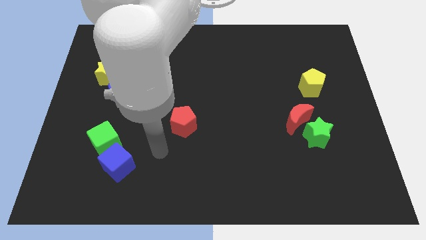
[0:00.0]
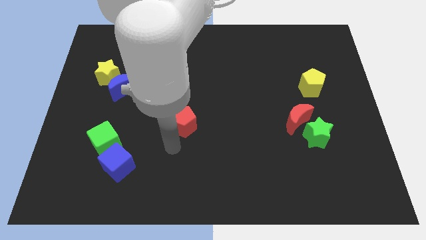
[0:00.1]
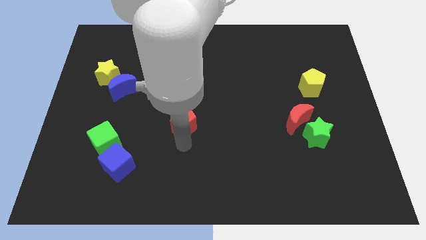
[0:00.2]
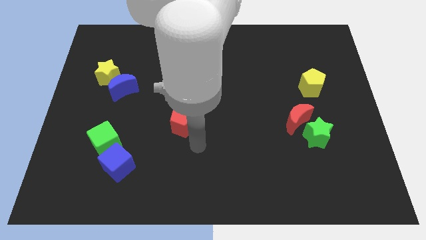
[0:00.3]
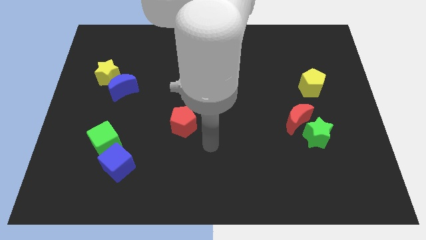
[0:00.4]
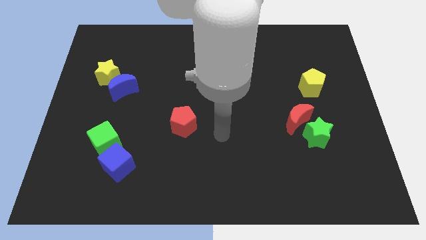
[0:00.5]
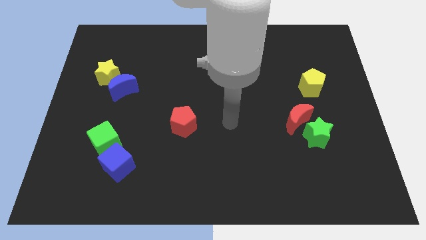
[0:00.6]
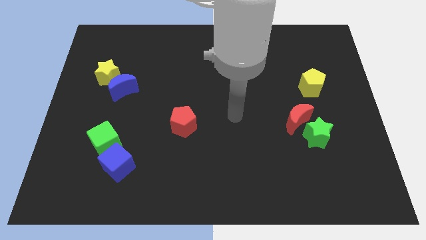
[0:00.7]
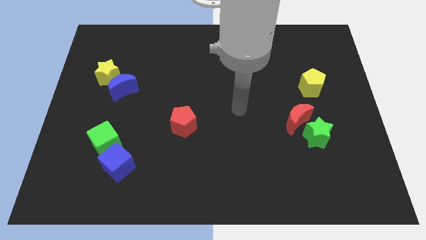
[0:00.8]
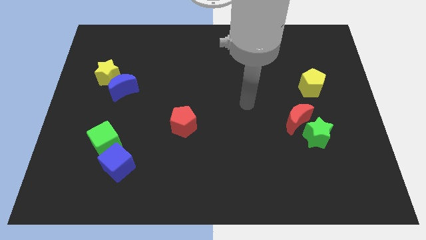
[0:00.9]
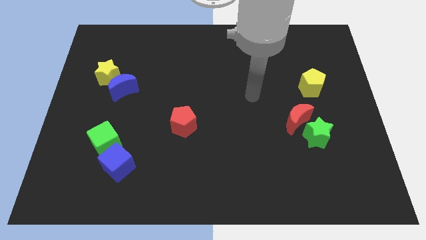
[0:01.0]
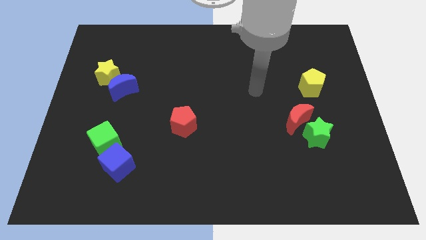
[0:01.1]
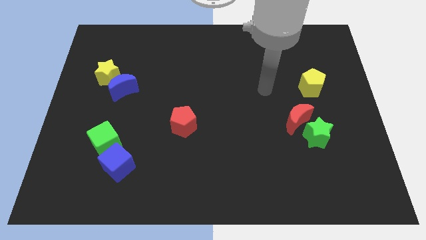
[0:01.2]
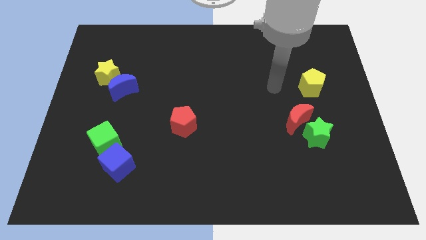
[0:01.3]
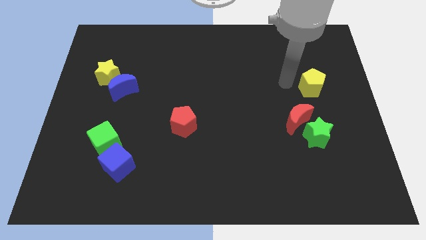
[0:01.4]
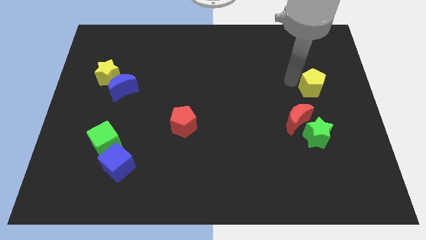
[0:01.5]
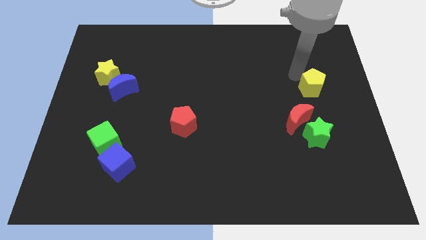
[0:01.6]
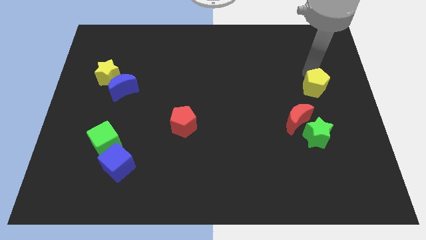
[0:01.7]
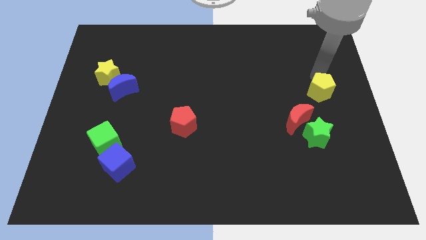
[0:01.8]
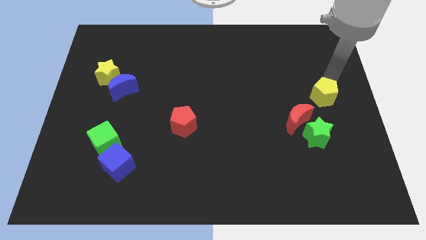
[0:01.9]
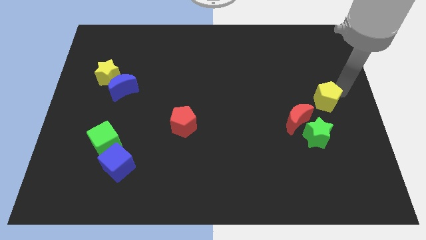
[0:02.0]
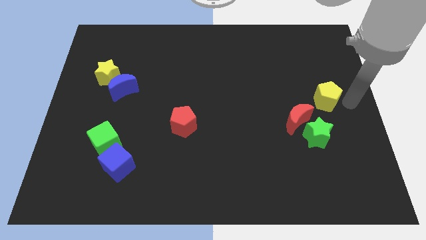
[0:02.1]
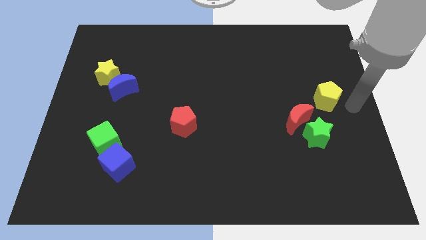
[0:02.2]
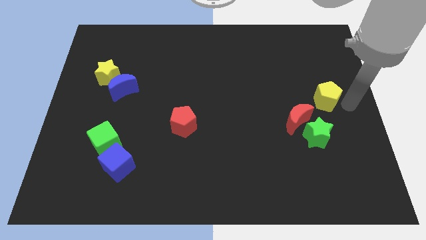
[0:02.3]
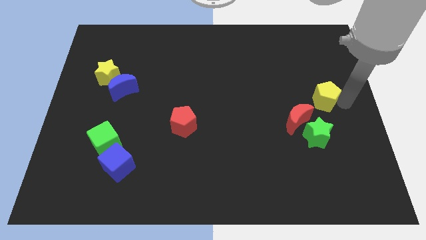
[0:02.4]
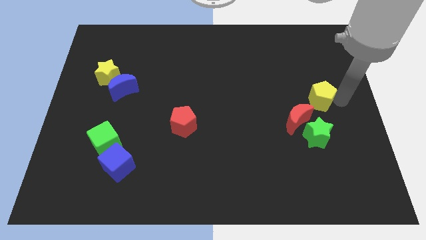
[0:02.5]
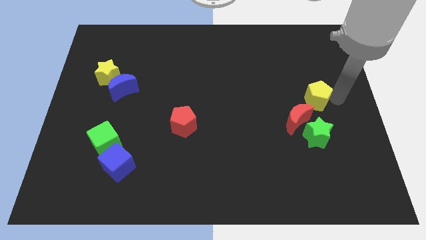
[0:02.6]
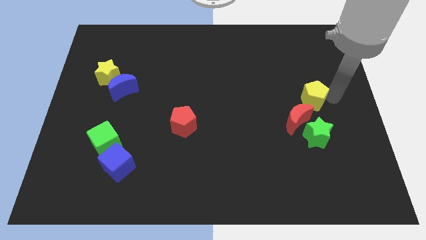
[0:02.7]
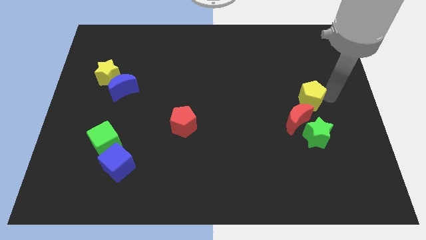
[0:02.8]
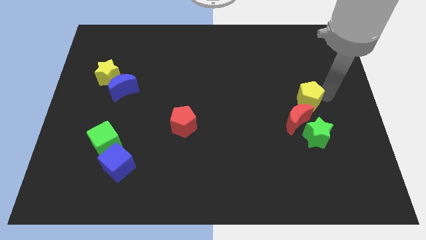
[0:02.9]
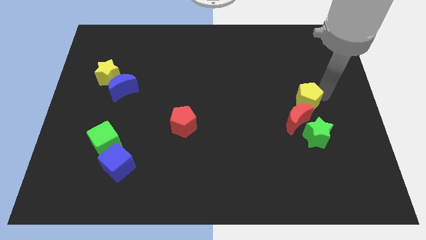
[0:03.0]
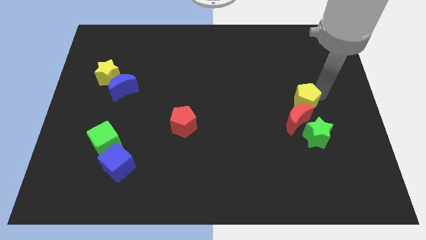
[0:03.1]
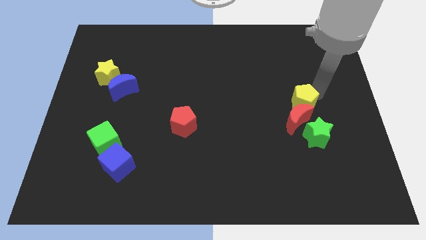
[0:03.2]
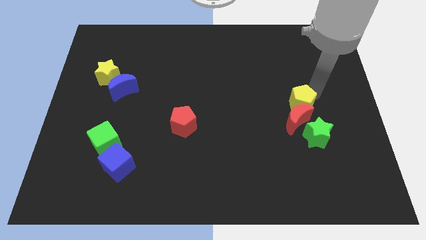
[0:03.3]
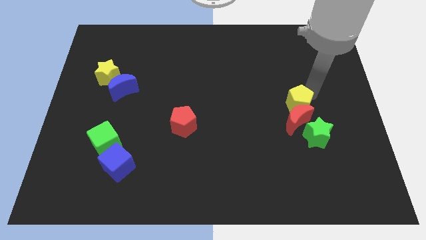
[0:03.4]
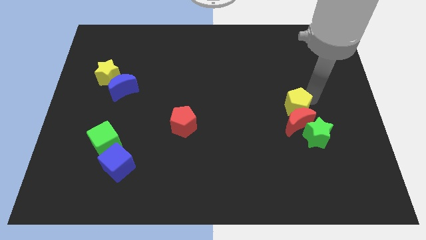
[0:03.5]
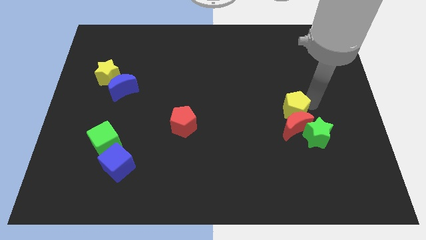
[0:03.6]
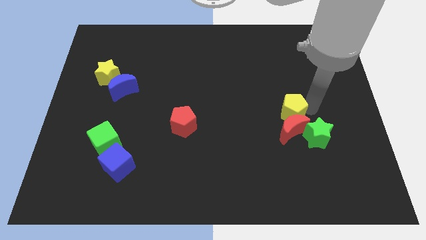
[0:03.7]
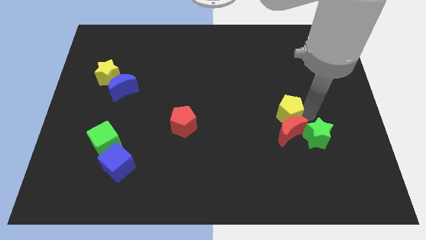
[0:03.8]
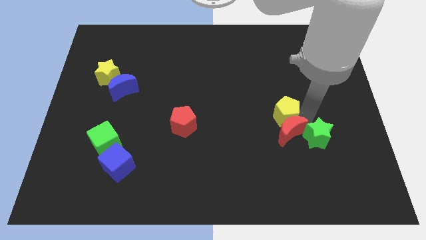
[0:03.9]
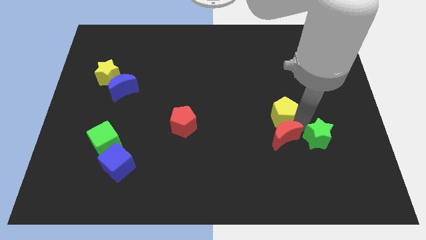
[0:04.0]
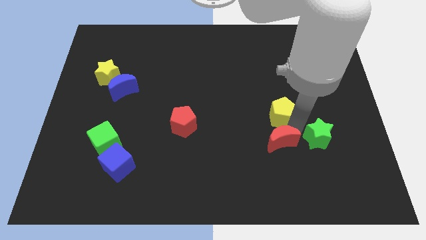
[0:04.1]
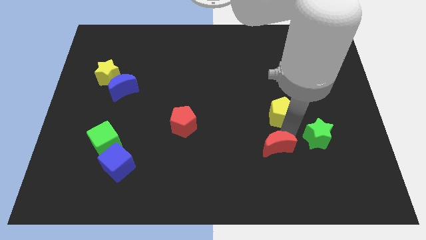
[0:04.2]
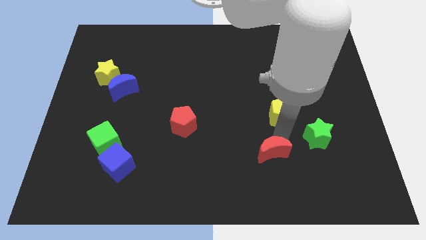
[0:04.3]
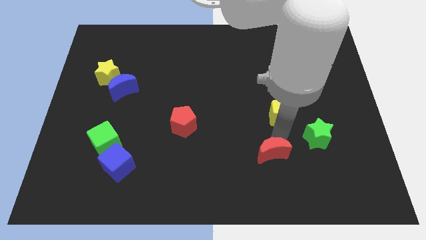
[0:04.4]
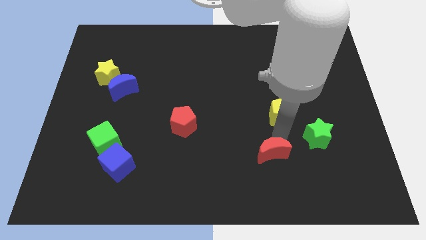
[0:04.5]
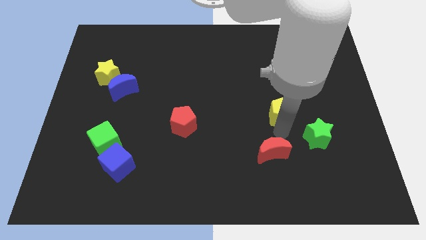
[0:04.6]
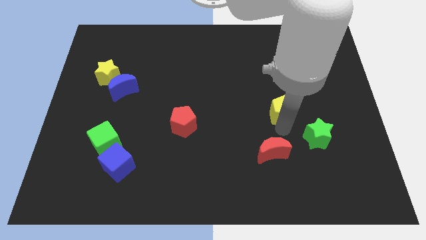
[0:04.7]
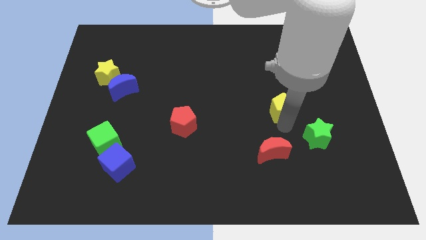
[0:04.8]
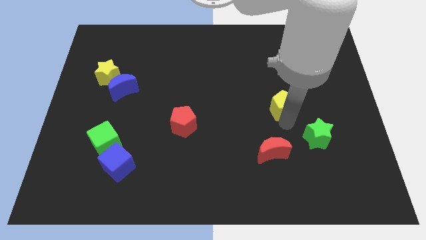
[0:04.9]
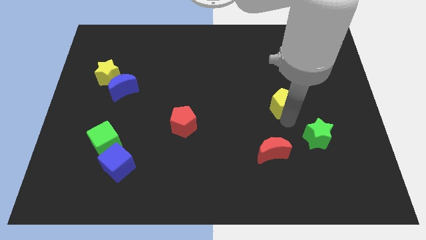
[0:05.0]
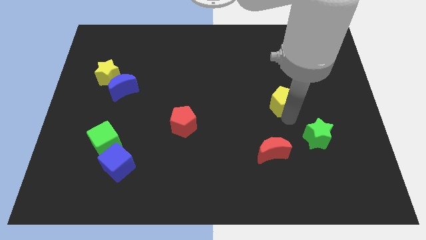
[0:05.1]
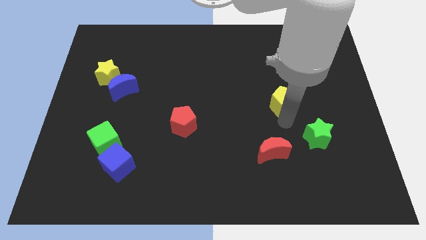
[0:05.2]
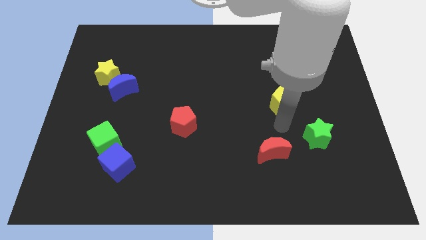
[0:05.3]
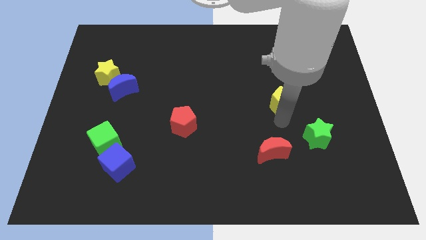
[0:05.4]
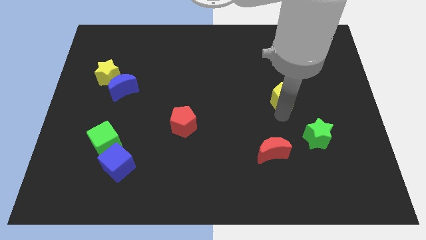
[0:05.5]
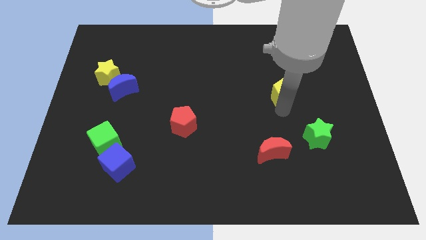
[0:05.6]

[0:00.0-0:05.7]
push the yellow pentagon left a little

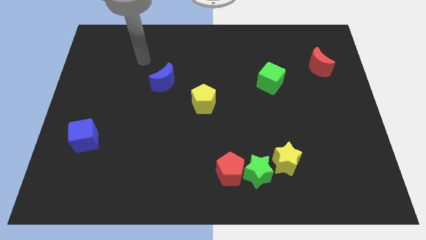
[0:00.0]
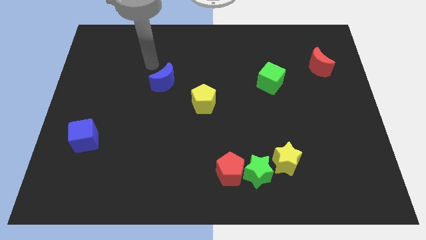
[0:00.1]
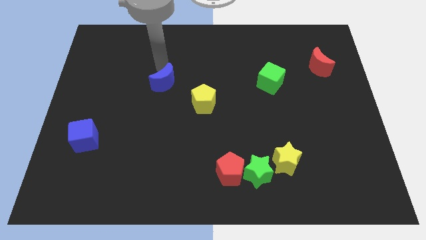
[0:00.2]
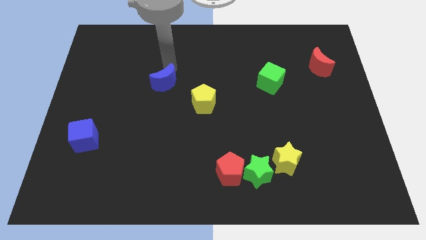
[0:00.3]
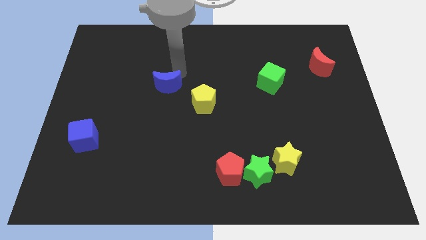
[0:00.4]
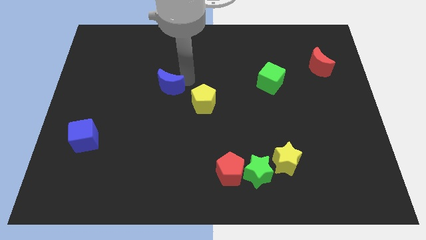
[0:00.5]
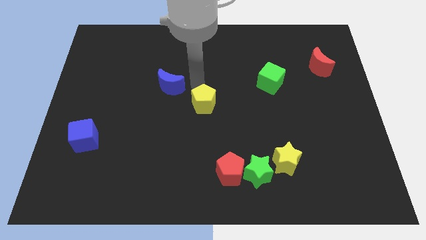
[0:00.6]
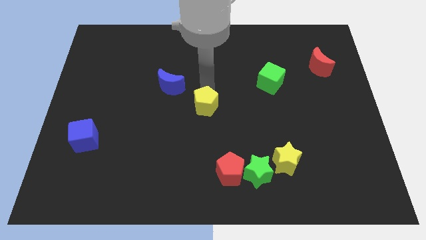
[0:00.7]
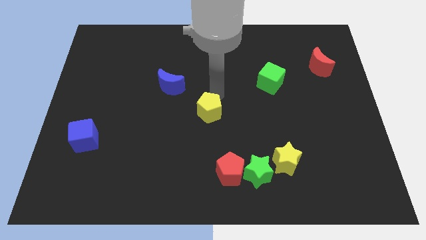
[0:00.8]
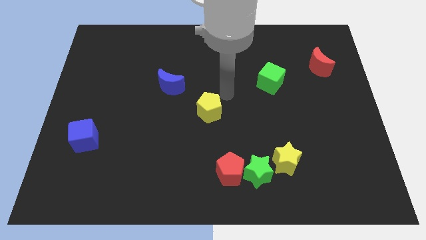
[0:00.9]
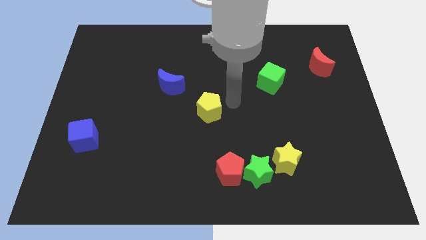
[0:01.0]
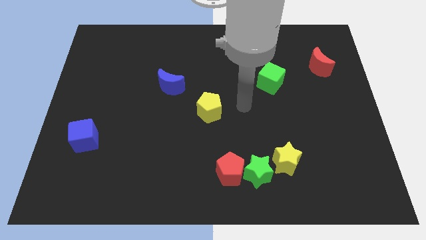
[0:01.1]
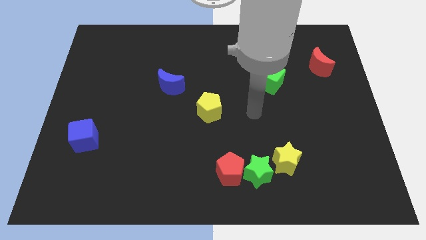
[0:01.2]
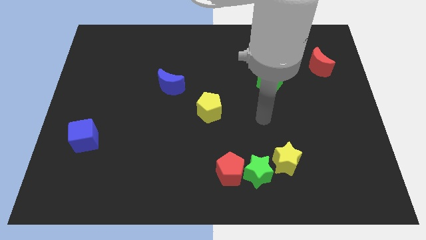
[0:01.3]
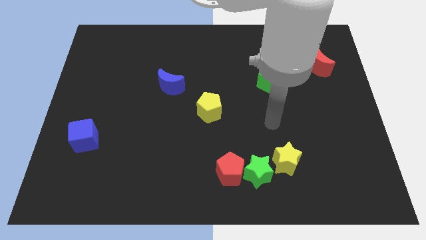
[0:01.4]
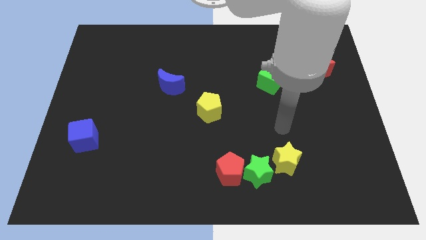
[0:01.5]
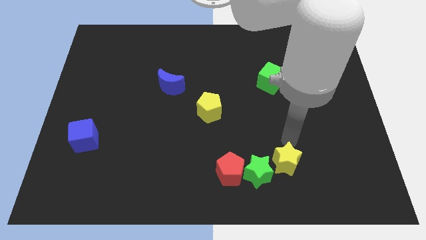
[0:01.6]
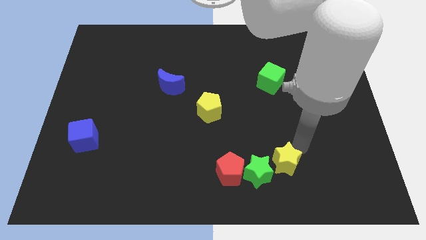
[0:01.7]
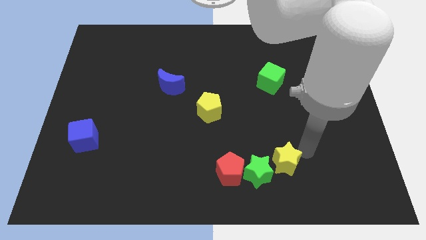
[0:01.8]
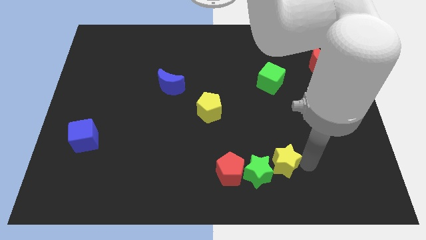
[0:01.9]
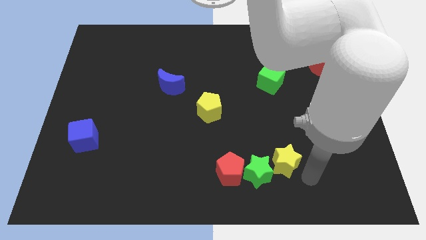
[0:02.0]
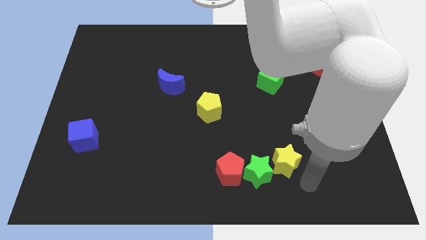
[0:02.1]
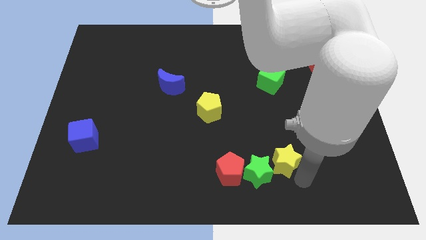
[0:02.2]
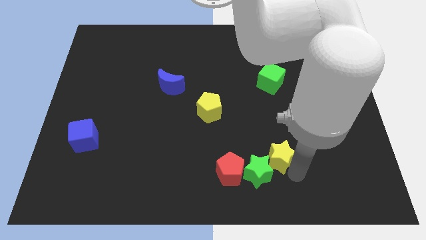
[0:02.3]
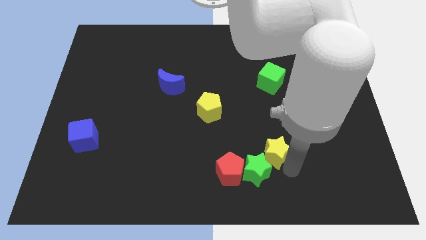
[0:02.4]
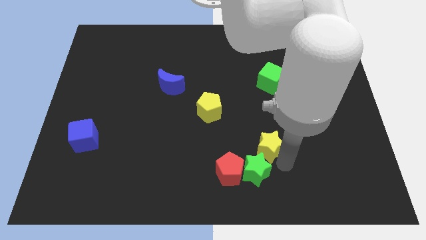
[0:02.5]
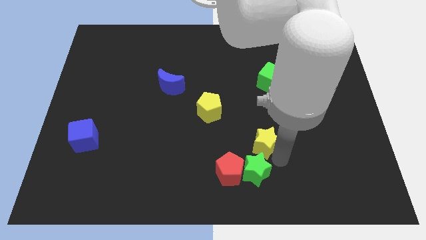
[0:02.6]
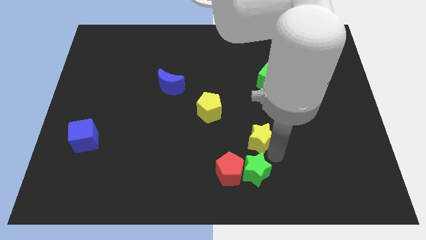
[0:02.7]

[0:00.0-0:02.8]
slide the yellow star a bit up and then to the left
